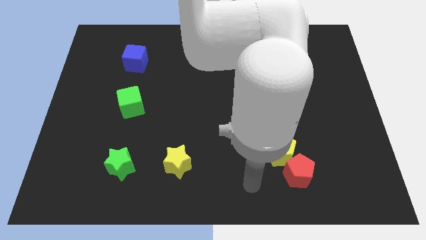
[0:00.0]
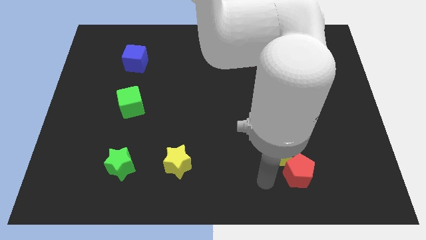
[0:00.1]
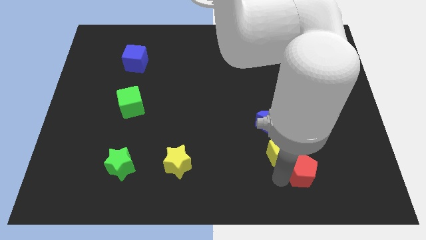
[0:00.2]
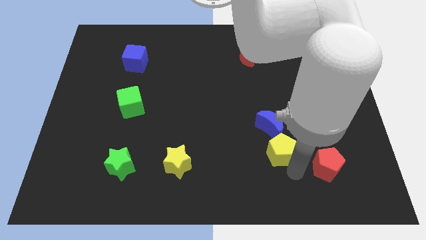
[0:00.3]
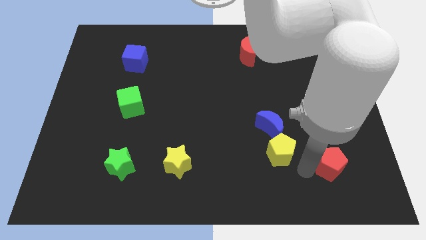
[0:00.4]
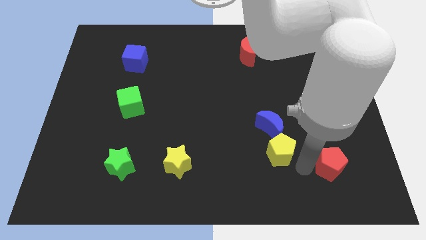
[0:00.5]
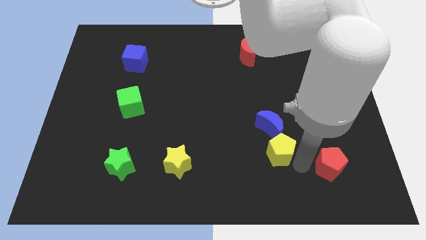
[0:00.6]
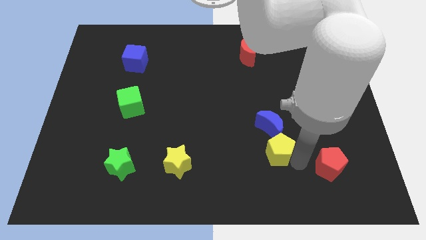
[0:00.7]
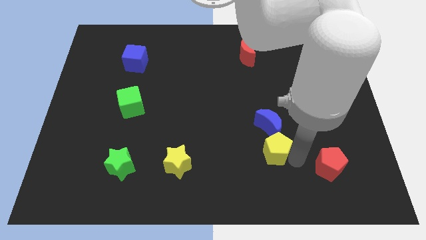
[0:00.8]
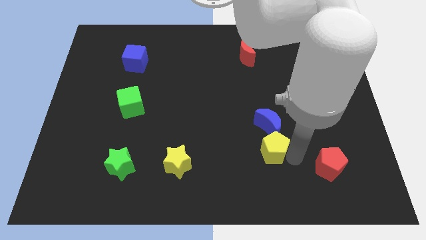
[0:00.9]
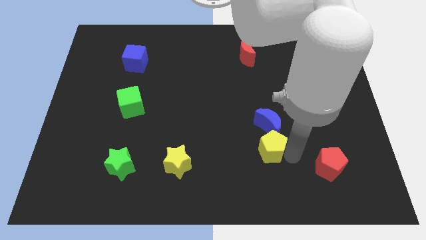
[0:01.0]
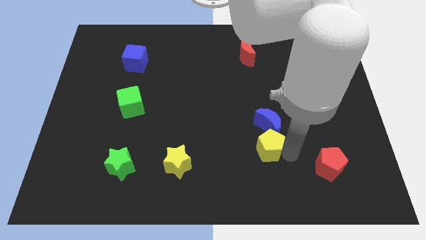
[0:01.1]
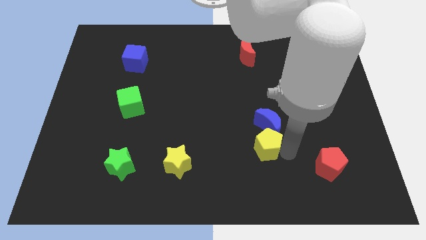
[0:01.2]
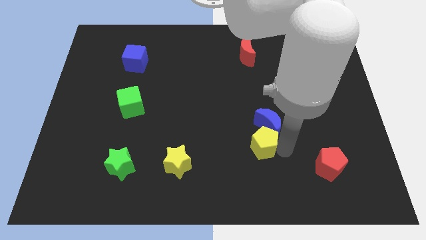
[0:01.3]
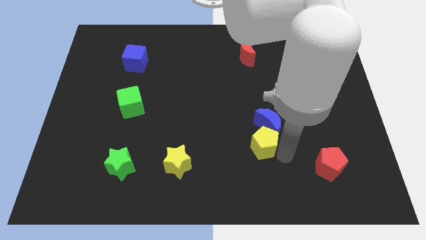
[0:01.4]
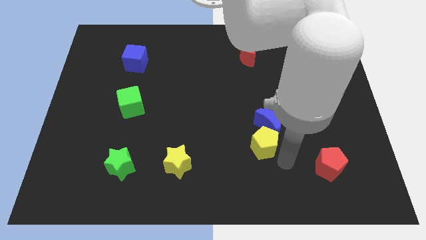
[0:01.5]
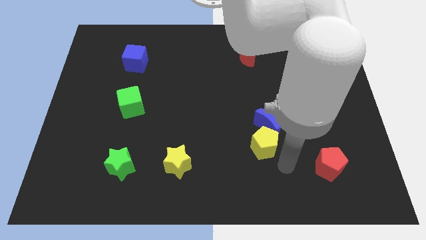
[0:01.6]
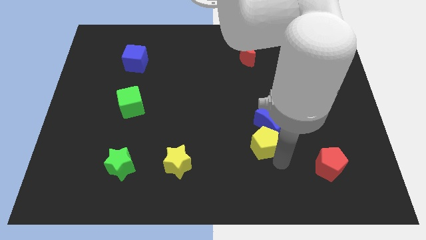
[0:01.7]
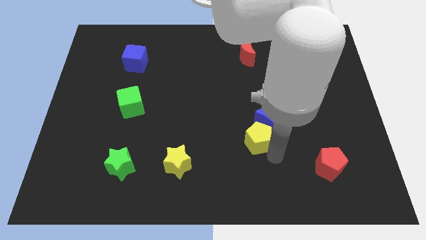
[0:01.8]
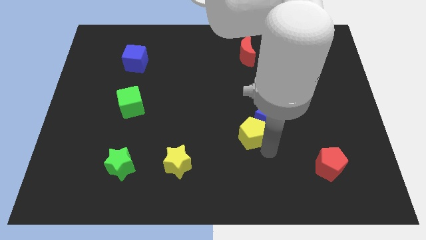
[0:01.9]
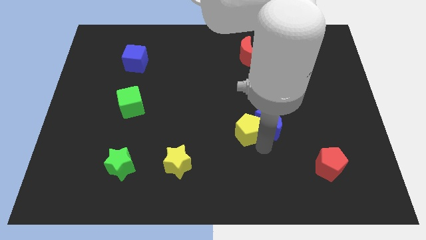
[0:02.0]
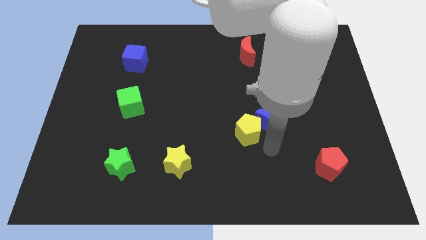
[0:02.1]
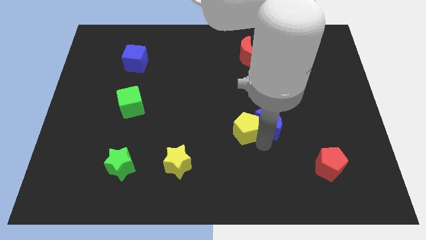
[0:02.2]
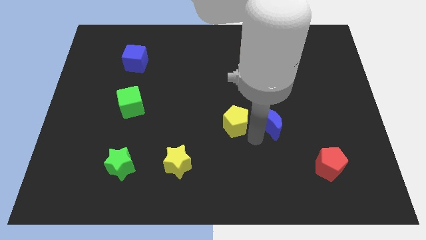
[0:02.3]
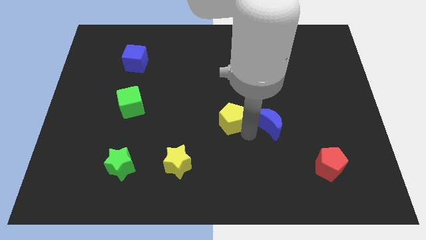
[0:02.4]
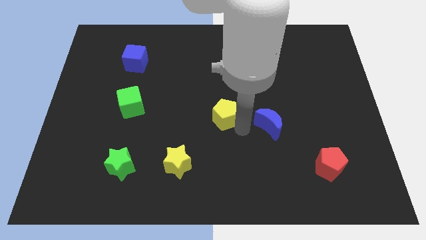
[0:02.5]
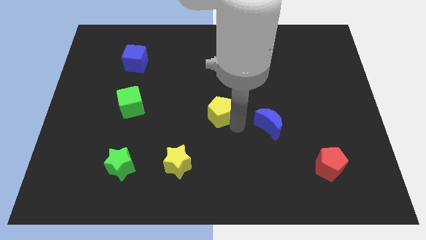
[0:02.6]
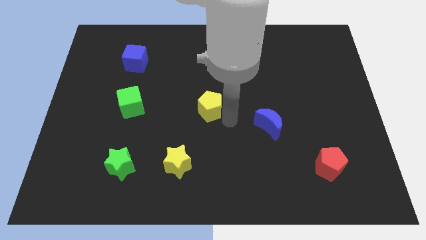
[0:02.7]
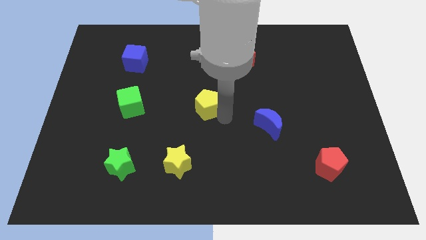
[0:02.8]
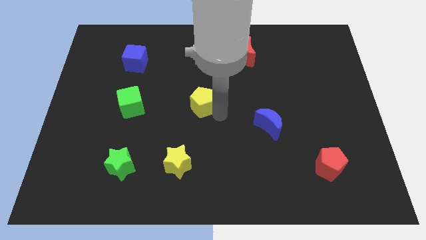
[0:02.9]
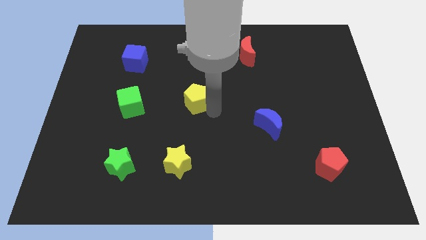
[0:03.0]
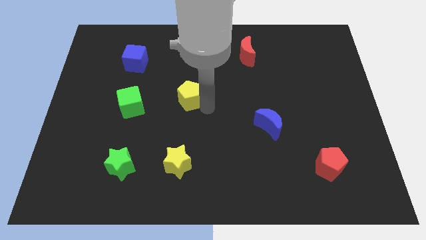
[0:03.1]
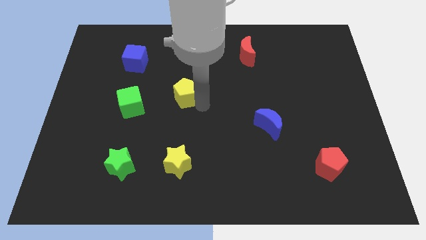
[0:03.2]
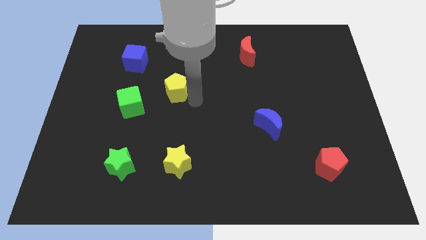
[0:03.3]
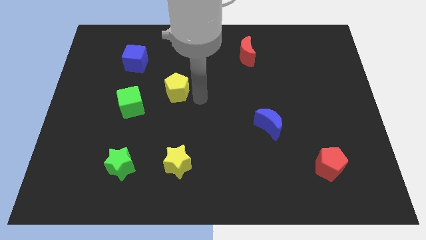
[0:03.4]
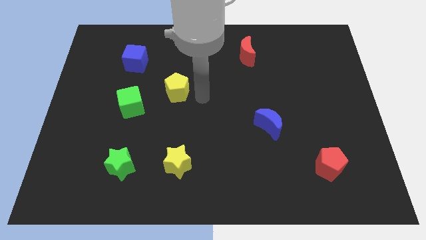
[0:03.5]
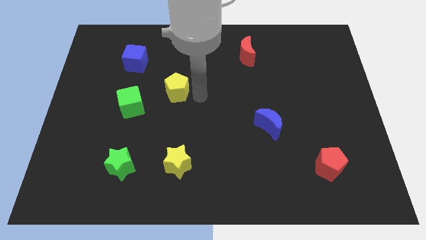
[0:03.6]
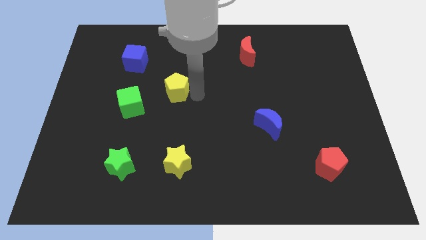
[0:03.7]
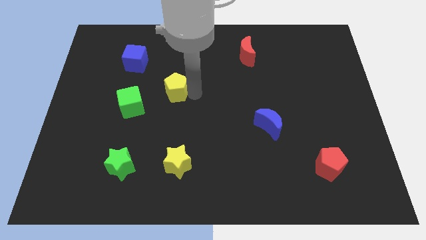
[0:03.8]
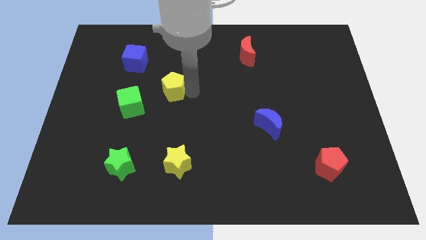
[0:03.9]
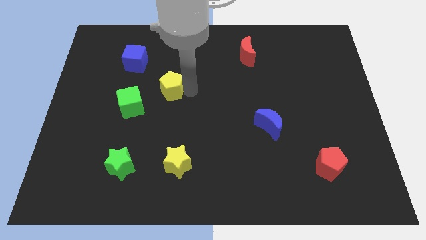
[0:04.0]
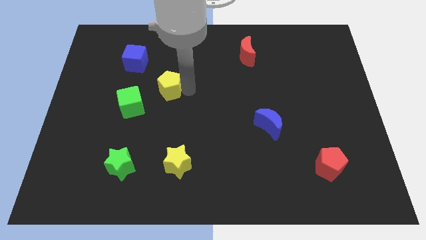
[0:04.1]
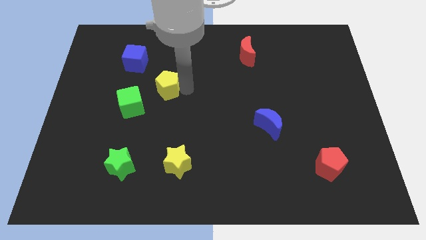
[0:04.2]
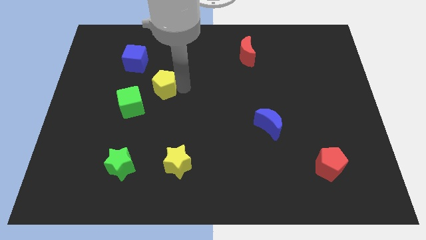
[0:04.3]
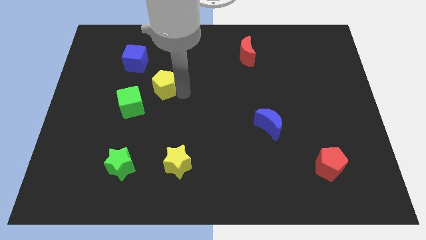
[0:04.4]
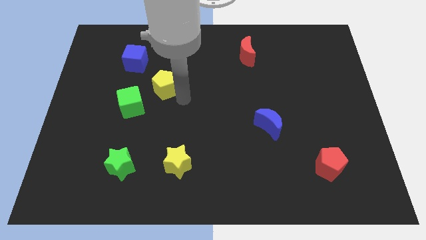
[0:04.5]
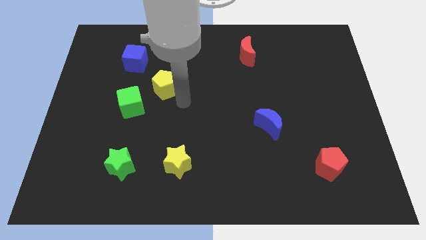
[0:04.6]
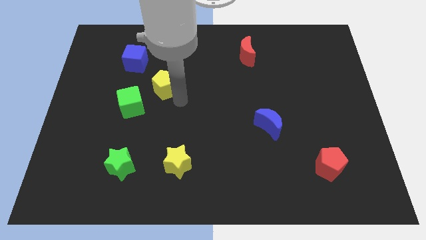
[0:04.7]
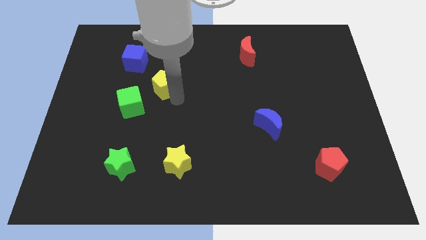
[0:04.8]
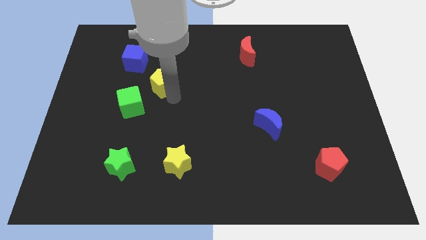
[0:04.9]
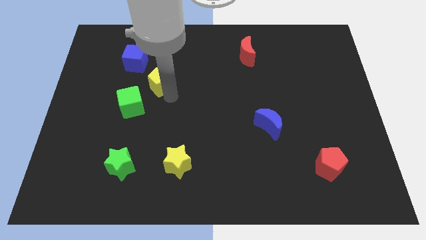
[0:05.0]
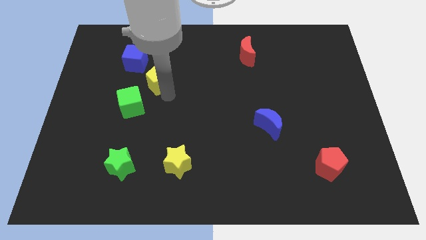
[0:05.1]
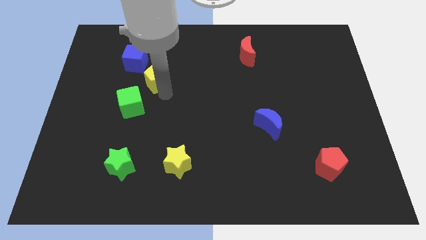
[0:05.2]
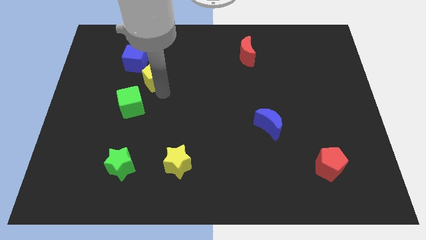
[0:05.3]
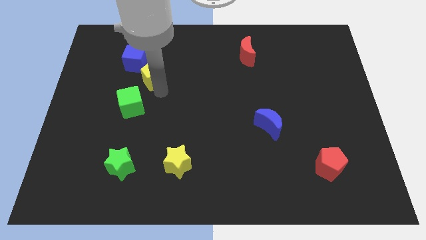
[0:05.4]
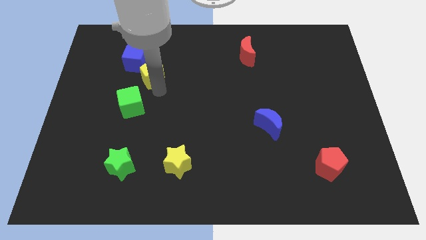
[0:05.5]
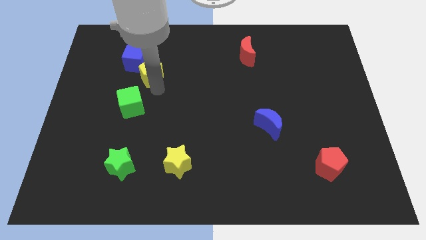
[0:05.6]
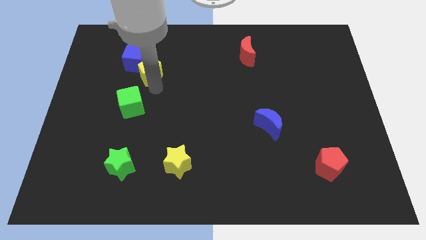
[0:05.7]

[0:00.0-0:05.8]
put the yellow pentagon next to the blue cube

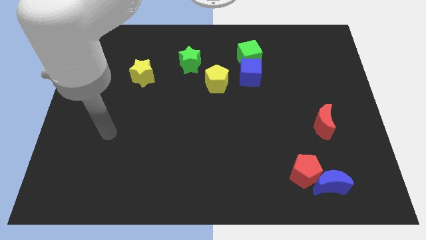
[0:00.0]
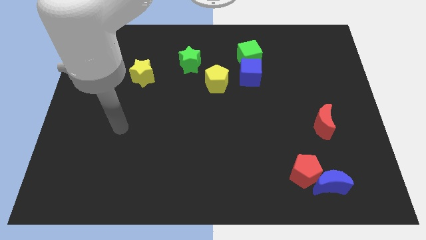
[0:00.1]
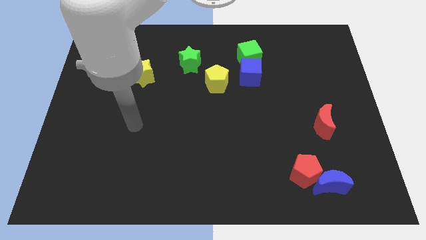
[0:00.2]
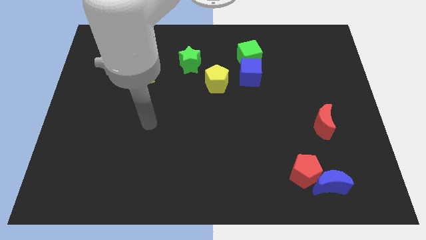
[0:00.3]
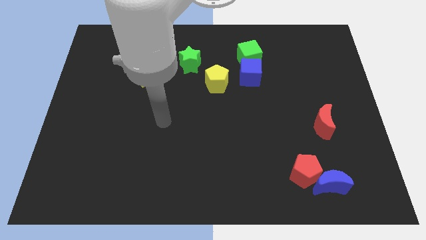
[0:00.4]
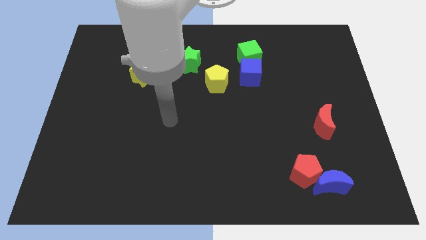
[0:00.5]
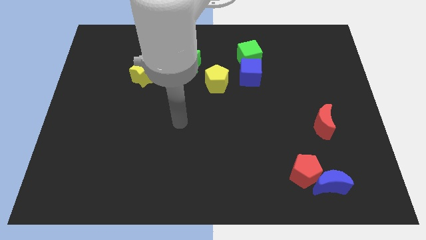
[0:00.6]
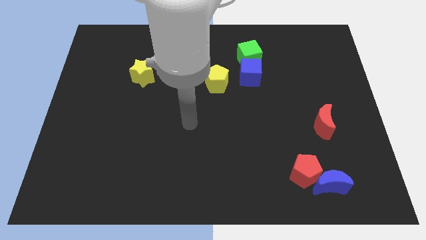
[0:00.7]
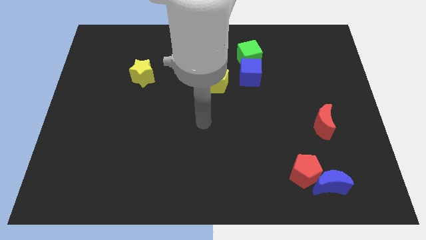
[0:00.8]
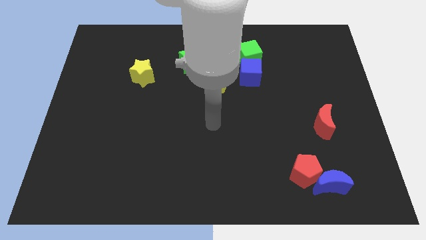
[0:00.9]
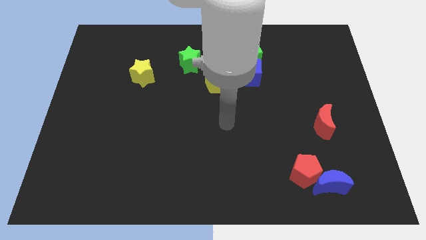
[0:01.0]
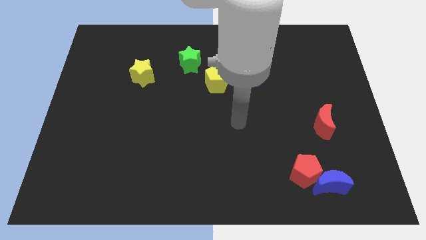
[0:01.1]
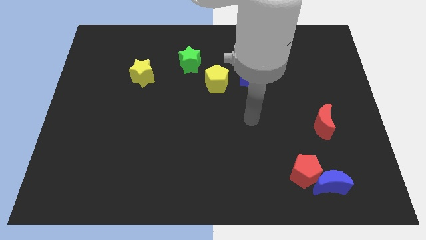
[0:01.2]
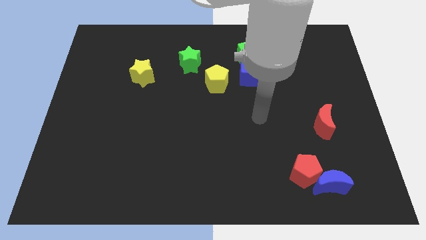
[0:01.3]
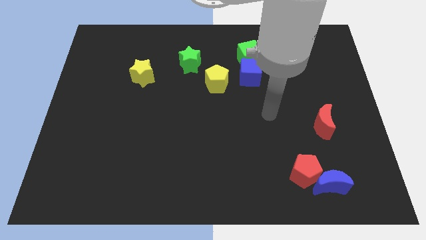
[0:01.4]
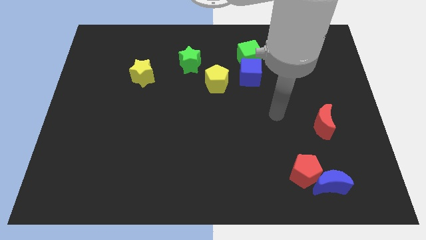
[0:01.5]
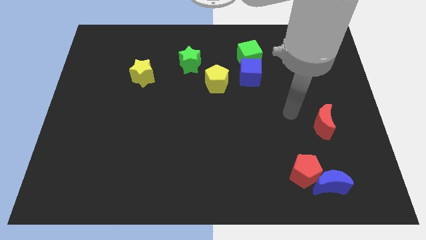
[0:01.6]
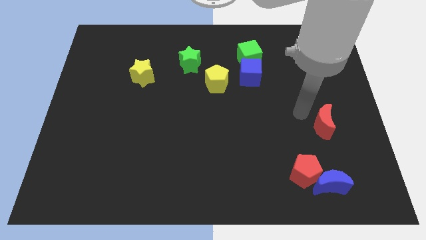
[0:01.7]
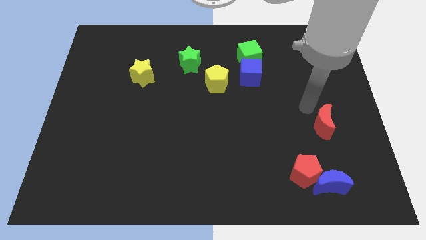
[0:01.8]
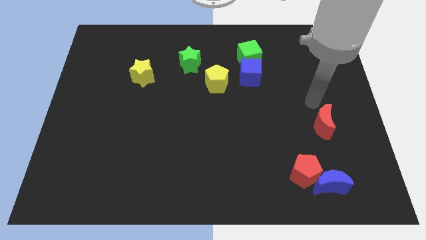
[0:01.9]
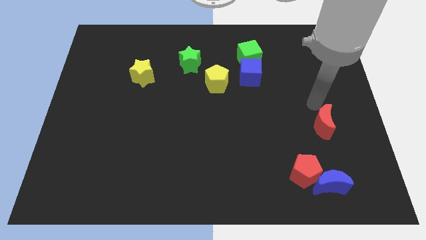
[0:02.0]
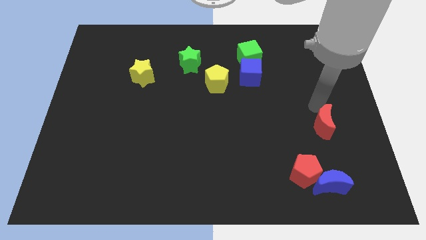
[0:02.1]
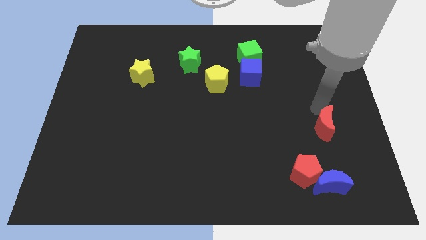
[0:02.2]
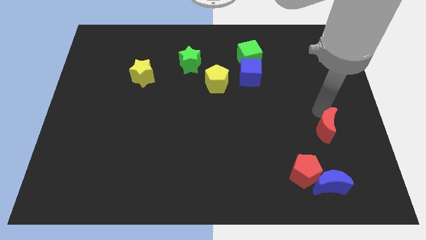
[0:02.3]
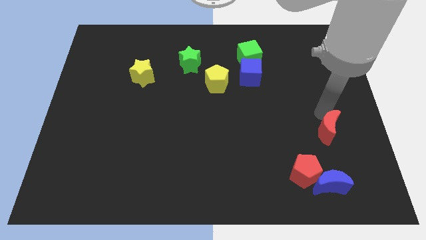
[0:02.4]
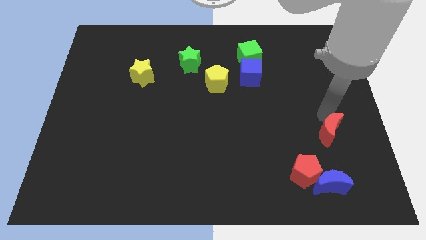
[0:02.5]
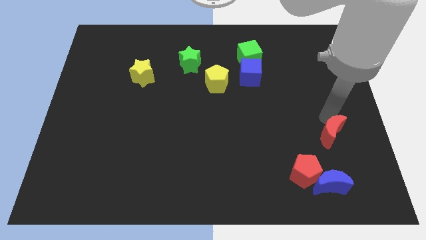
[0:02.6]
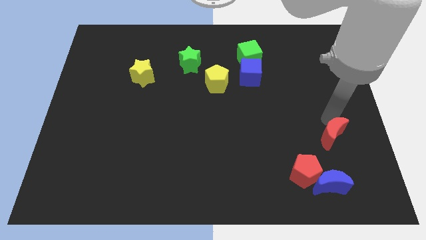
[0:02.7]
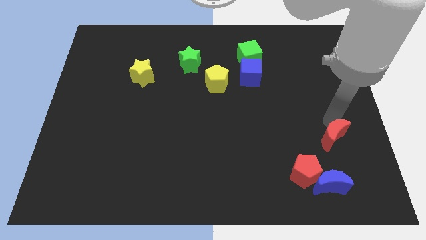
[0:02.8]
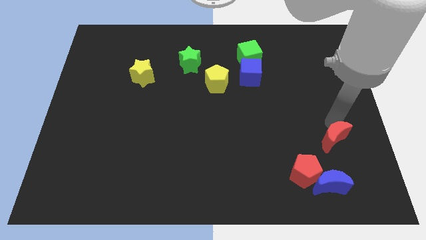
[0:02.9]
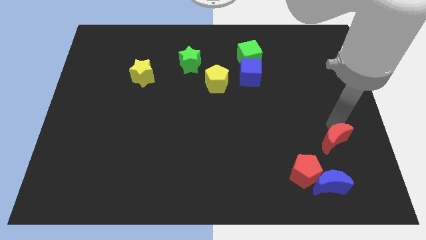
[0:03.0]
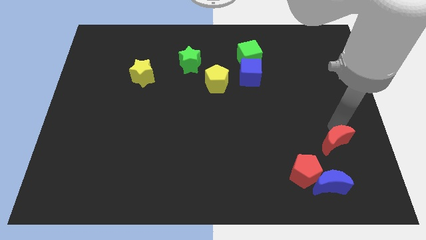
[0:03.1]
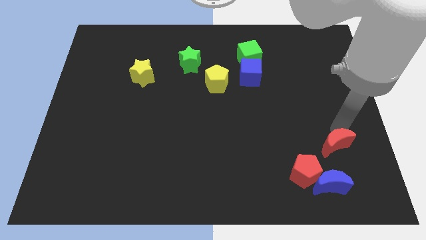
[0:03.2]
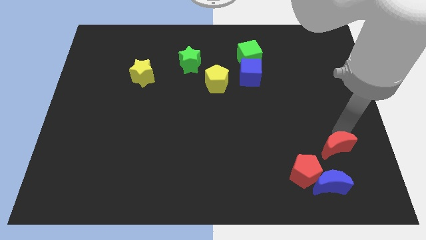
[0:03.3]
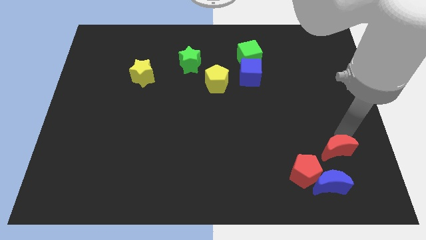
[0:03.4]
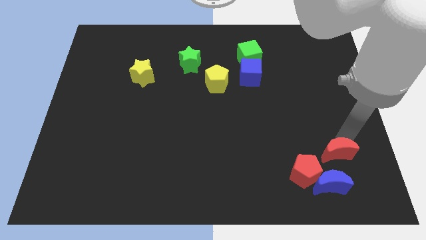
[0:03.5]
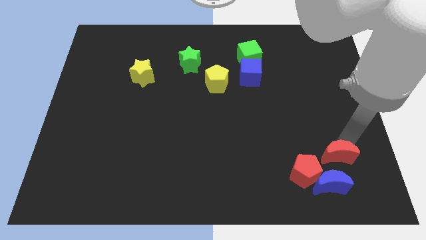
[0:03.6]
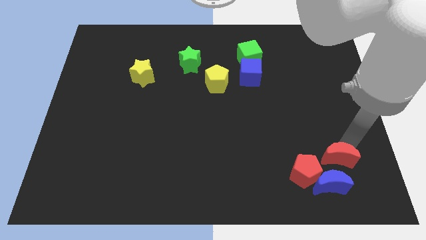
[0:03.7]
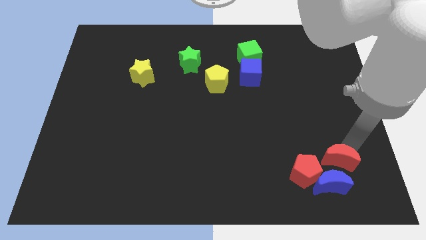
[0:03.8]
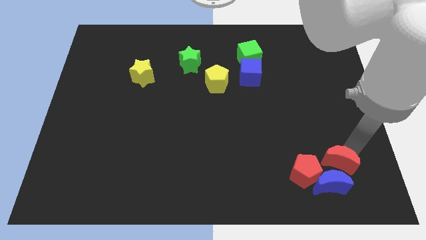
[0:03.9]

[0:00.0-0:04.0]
put the red moon towards the blue moon
